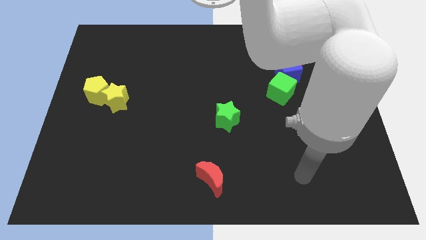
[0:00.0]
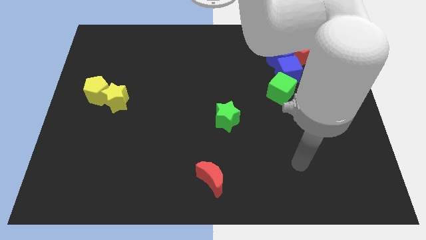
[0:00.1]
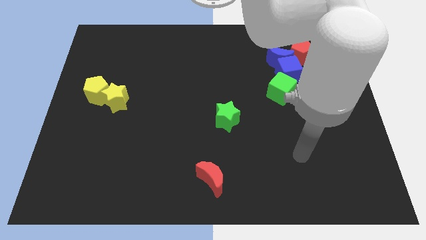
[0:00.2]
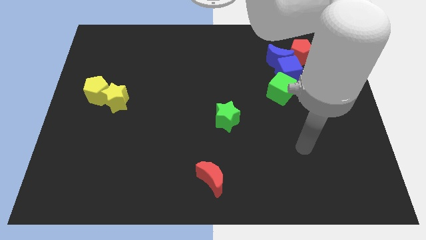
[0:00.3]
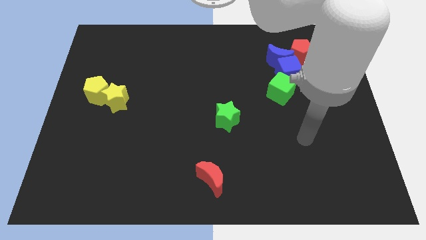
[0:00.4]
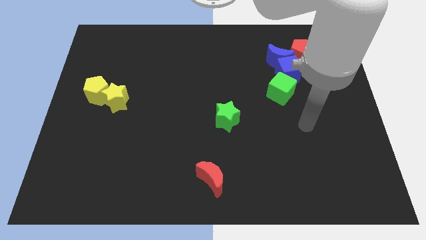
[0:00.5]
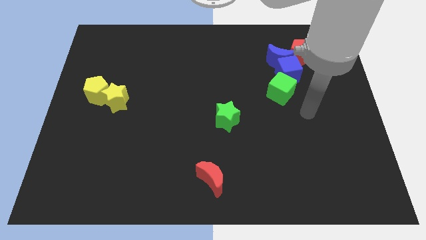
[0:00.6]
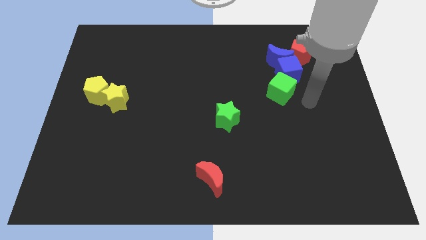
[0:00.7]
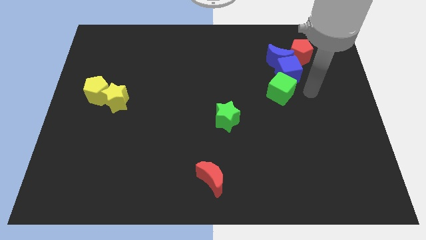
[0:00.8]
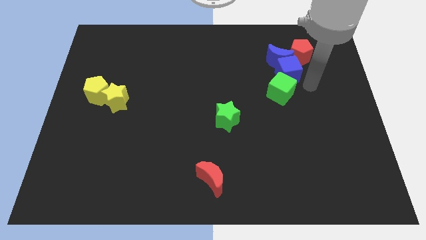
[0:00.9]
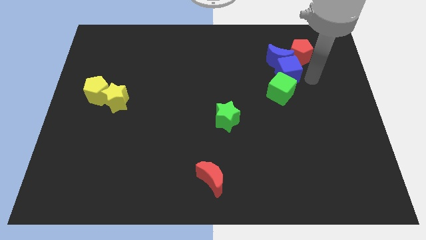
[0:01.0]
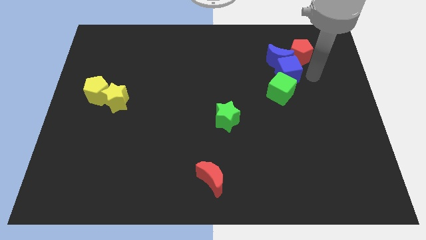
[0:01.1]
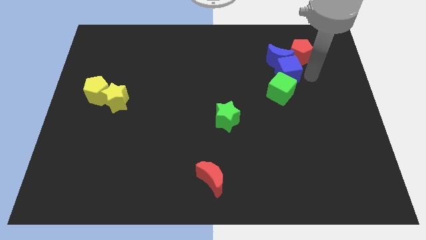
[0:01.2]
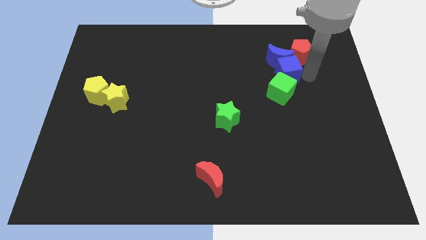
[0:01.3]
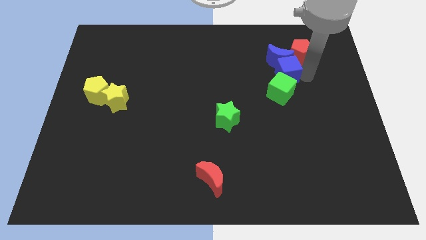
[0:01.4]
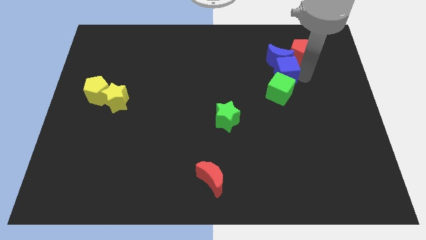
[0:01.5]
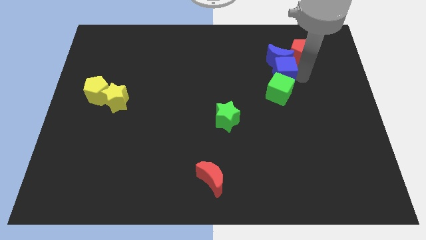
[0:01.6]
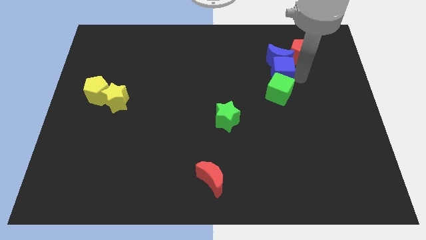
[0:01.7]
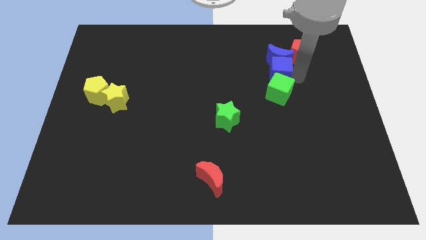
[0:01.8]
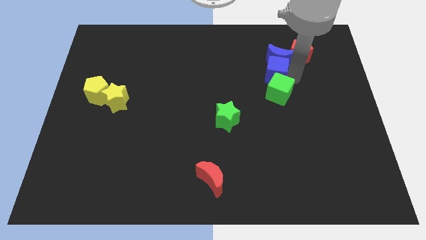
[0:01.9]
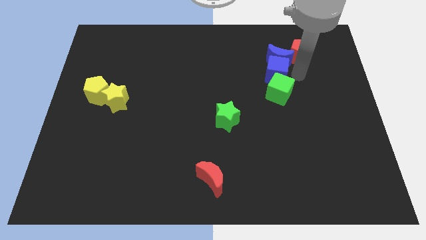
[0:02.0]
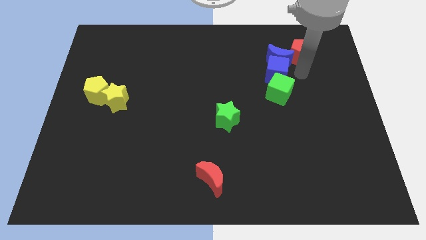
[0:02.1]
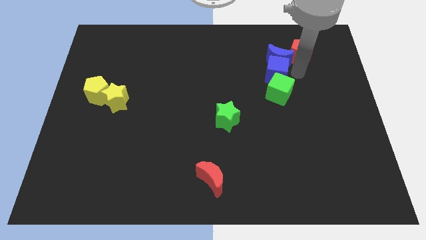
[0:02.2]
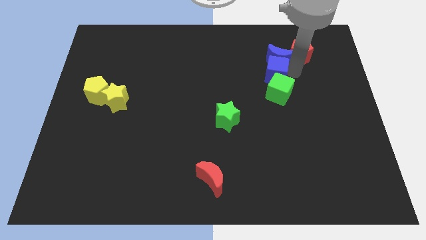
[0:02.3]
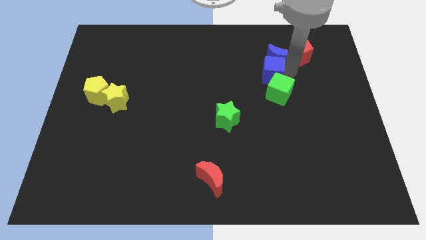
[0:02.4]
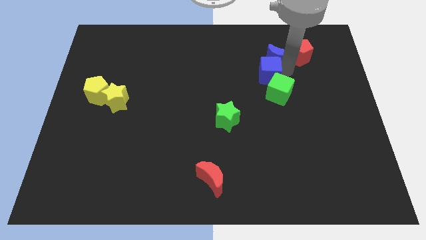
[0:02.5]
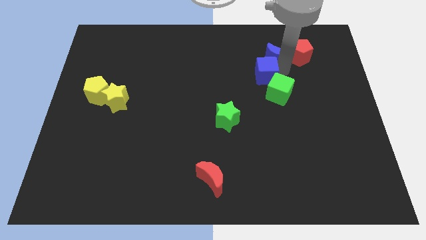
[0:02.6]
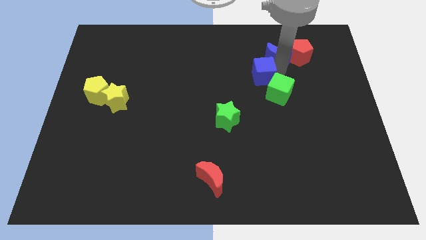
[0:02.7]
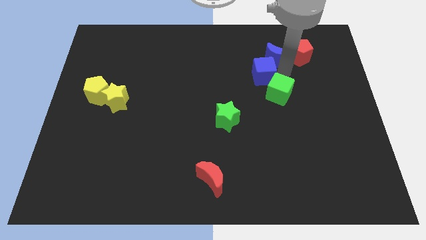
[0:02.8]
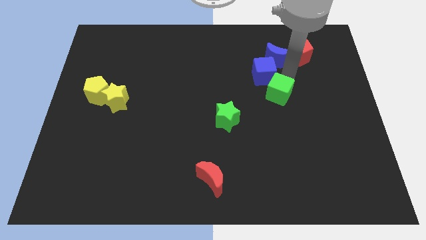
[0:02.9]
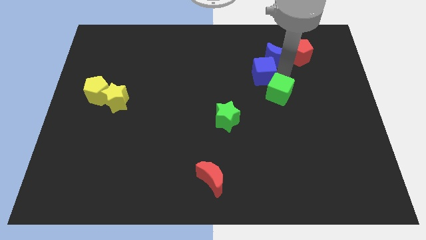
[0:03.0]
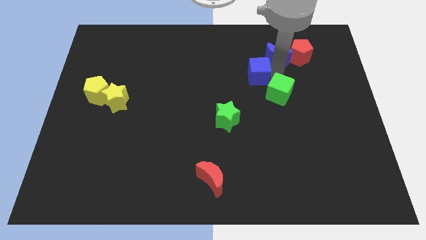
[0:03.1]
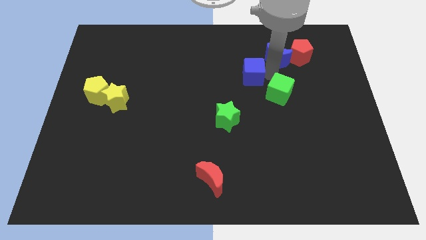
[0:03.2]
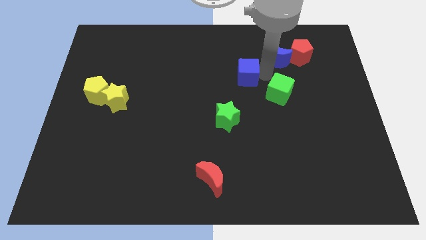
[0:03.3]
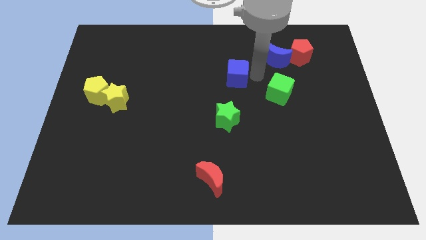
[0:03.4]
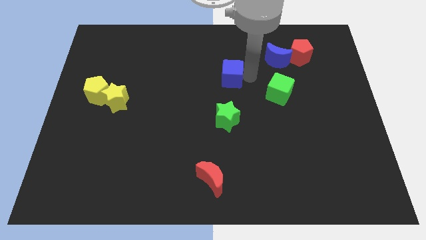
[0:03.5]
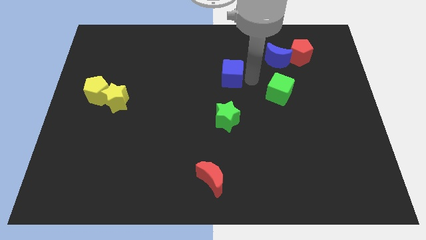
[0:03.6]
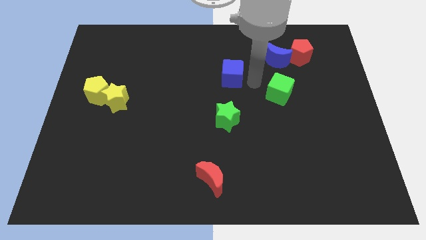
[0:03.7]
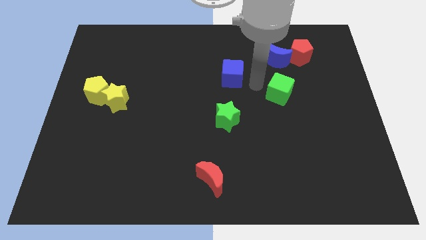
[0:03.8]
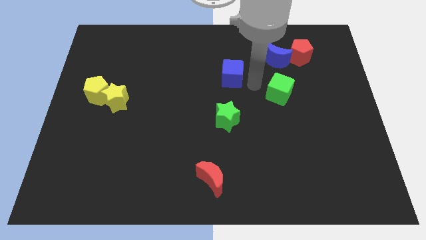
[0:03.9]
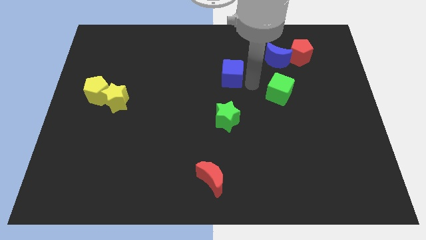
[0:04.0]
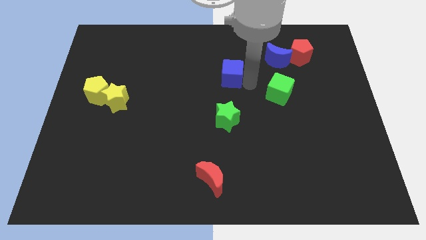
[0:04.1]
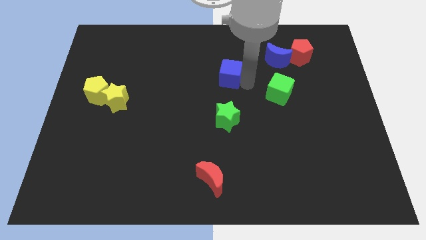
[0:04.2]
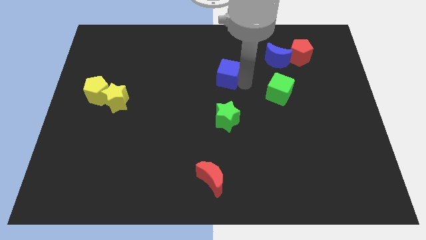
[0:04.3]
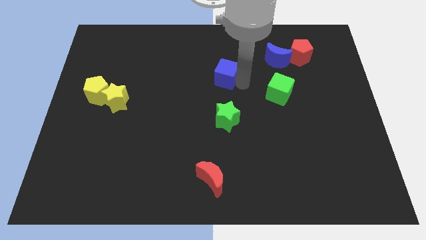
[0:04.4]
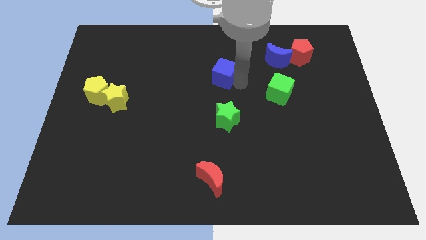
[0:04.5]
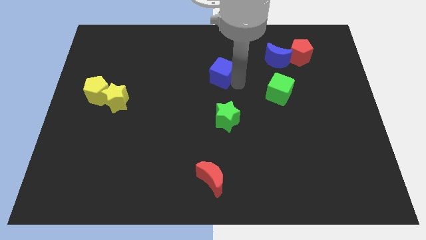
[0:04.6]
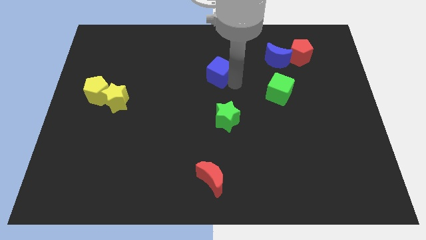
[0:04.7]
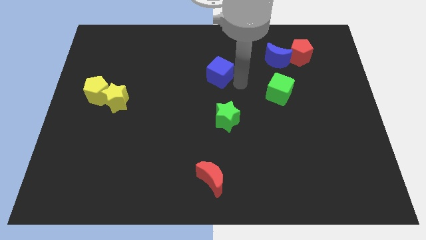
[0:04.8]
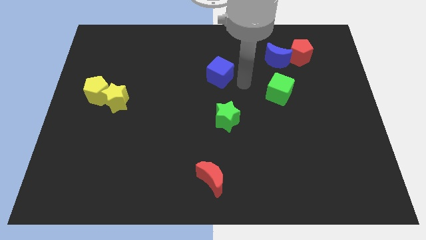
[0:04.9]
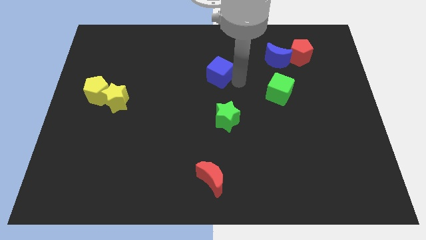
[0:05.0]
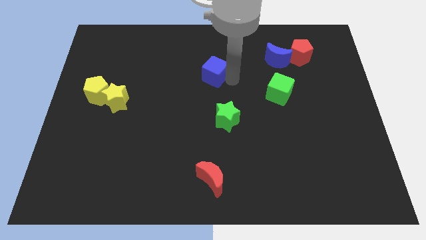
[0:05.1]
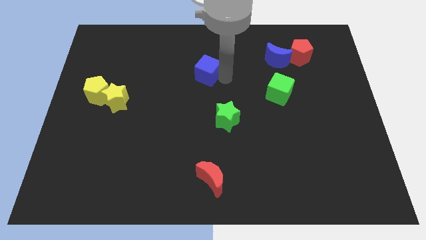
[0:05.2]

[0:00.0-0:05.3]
push the blue cube to the left

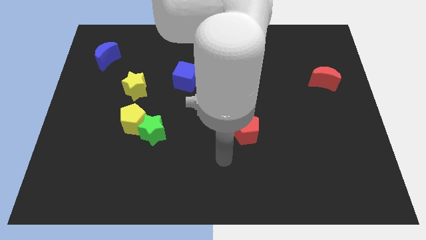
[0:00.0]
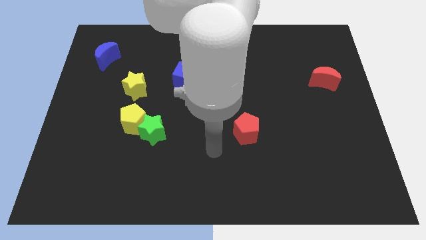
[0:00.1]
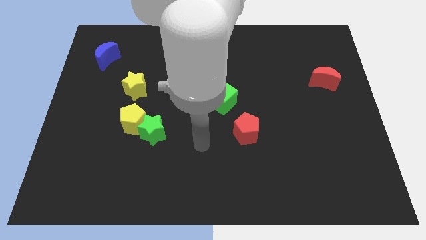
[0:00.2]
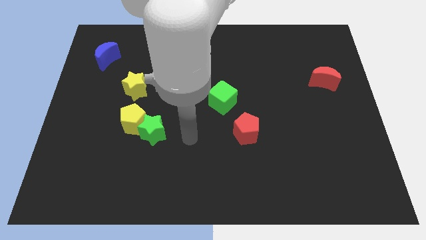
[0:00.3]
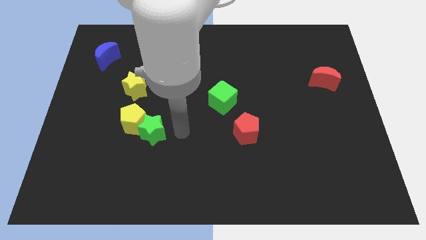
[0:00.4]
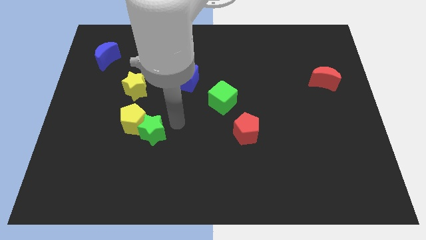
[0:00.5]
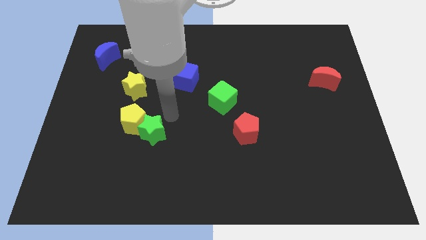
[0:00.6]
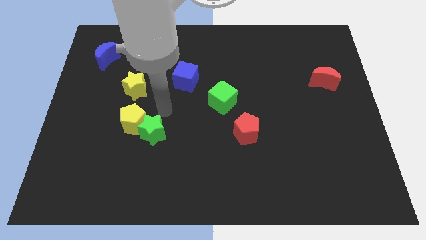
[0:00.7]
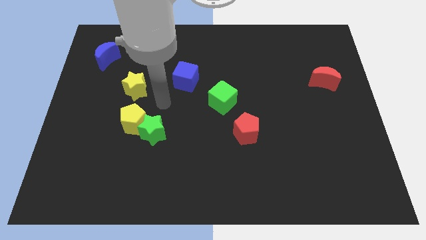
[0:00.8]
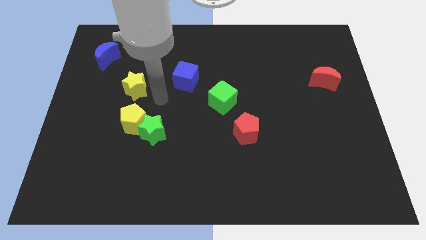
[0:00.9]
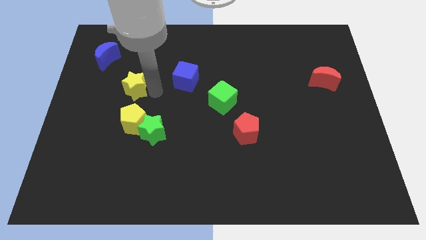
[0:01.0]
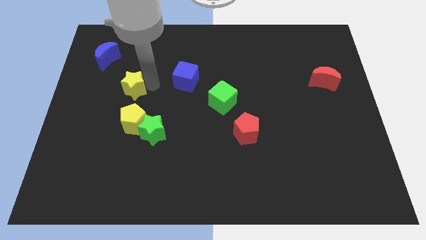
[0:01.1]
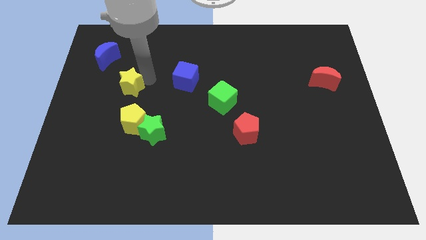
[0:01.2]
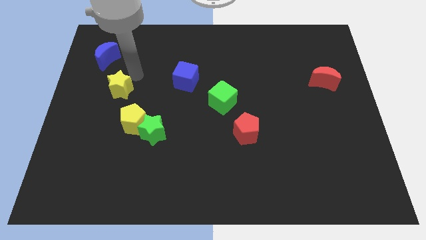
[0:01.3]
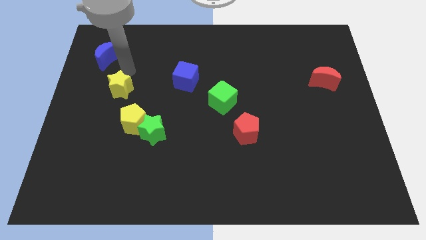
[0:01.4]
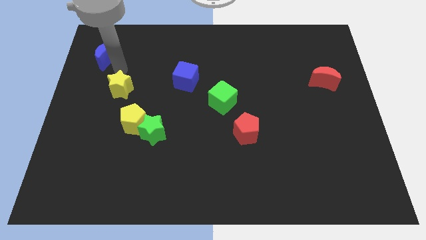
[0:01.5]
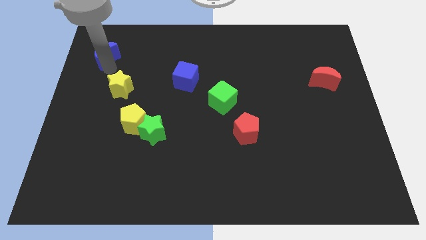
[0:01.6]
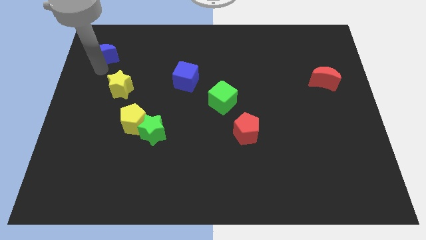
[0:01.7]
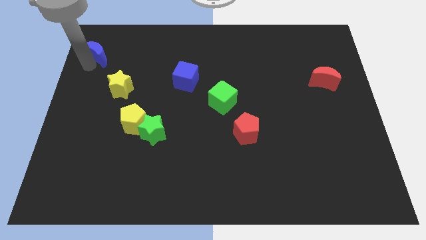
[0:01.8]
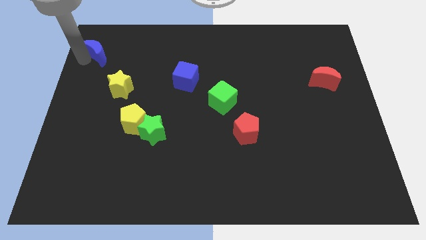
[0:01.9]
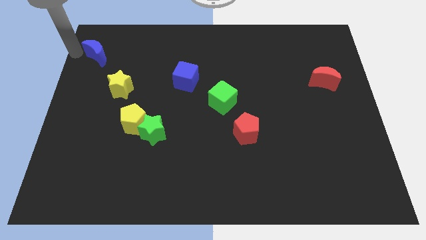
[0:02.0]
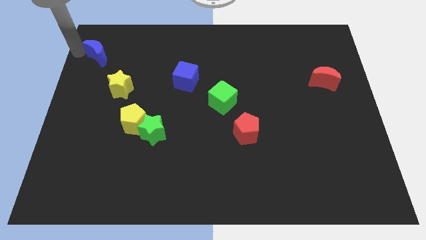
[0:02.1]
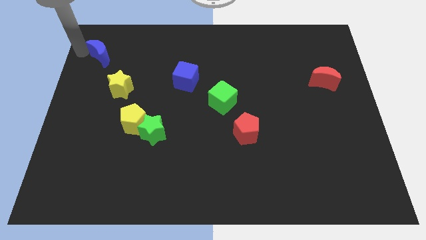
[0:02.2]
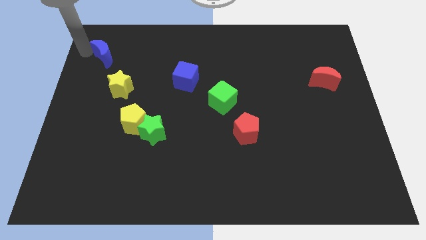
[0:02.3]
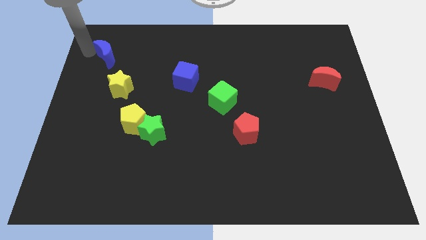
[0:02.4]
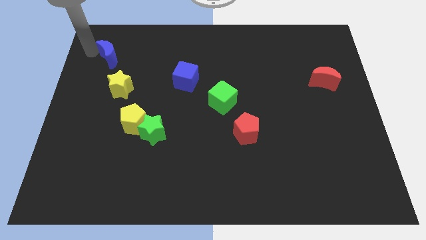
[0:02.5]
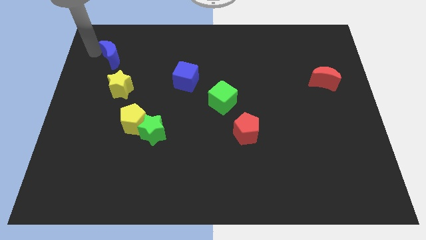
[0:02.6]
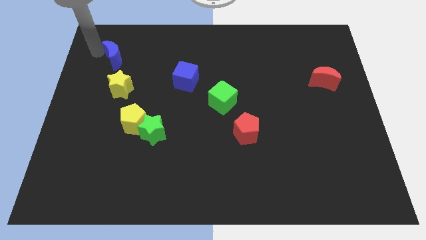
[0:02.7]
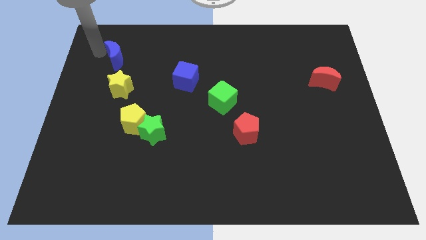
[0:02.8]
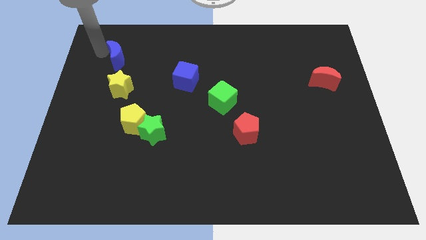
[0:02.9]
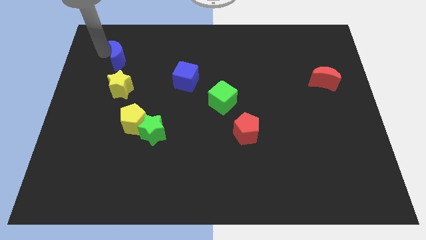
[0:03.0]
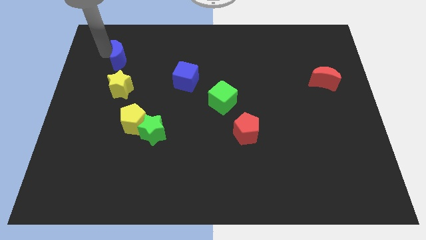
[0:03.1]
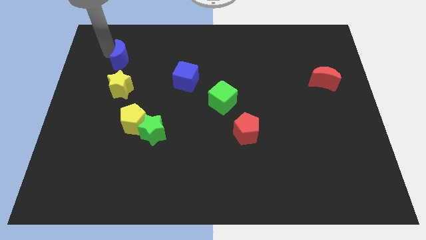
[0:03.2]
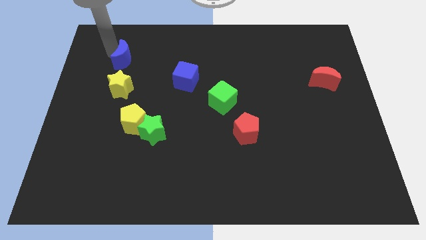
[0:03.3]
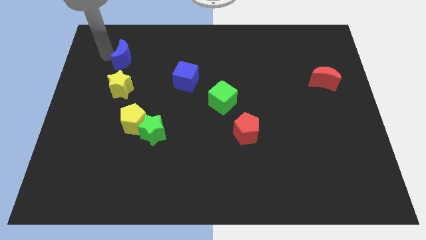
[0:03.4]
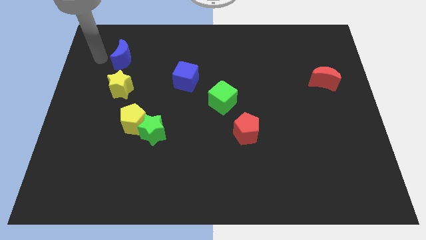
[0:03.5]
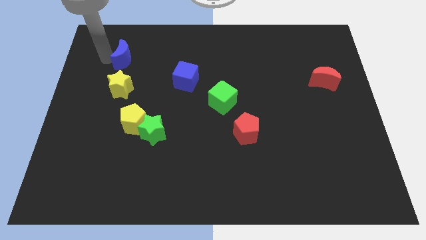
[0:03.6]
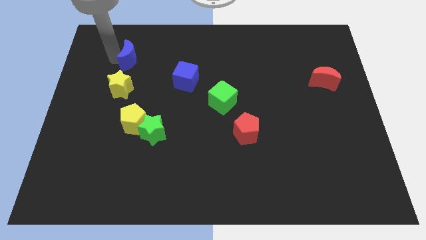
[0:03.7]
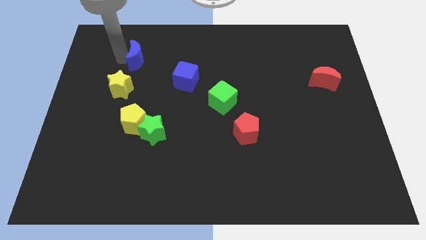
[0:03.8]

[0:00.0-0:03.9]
slide the blue moon a bit right
